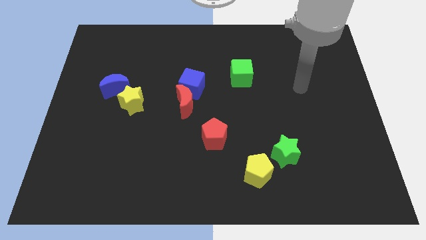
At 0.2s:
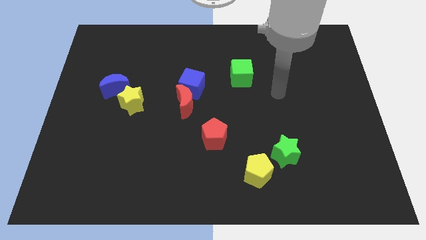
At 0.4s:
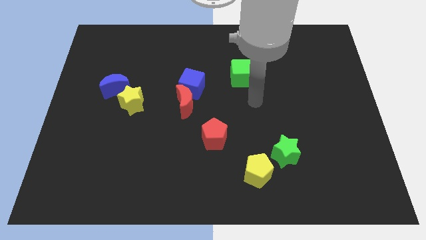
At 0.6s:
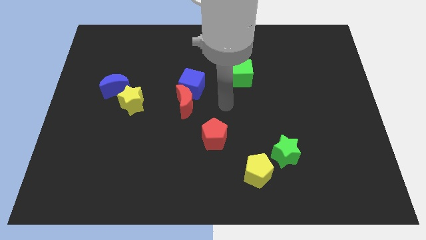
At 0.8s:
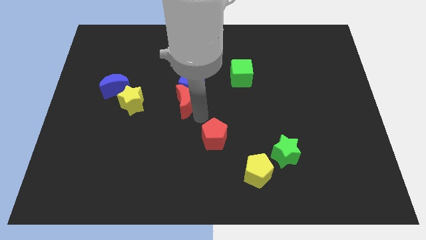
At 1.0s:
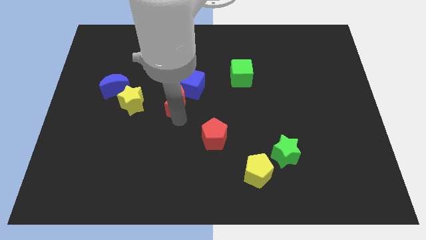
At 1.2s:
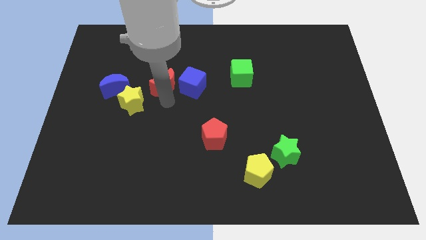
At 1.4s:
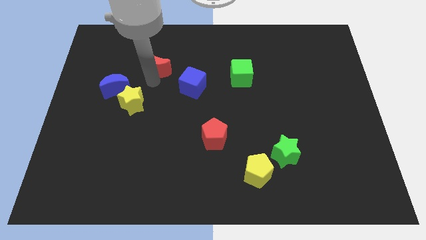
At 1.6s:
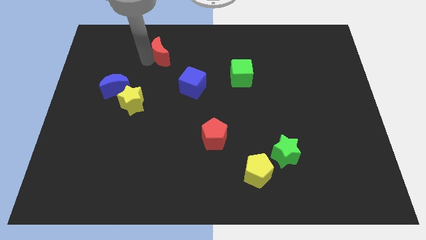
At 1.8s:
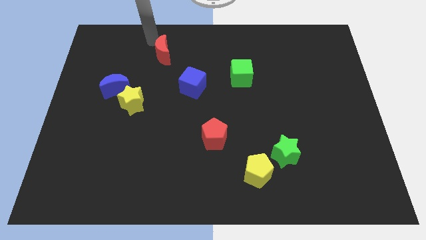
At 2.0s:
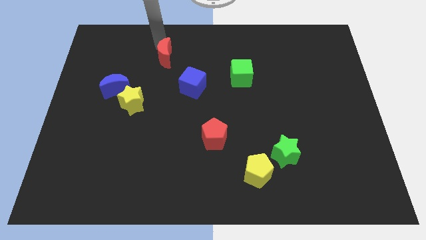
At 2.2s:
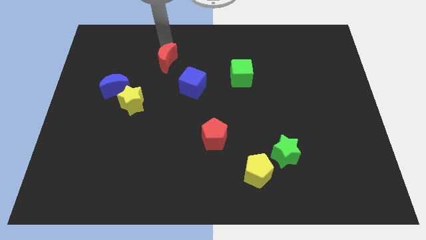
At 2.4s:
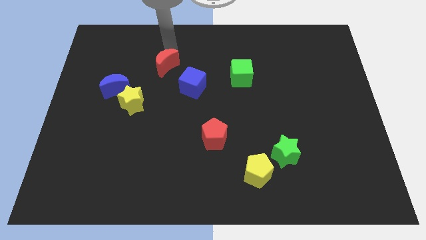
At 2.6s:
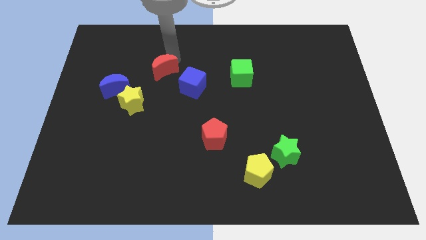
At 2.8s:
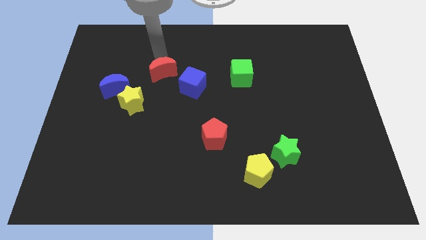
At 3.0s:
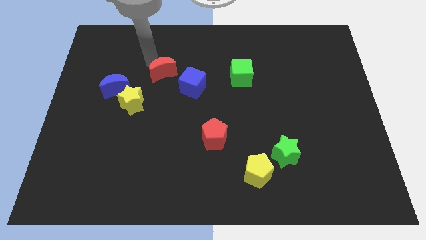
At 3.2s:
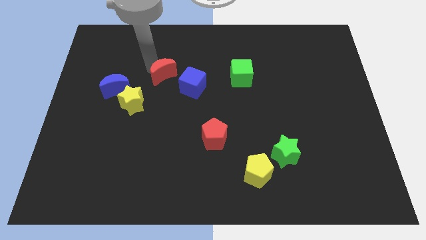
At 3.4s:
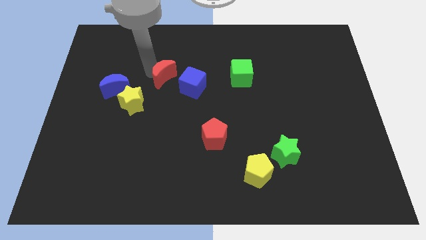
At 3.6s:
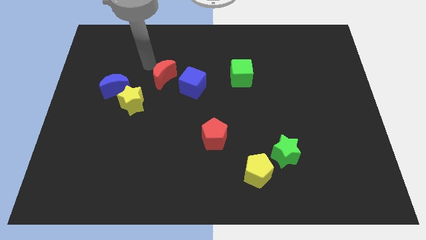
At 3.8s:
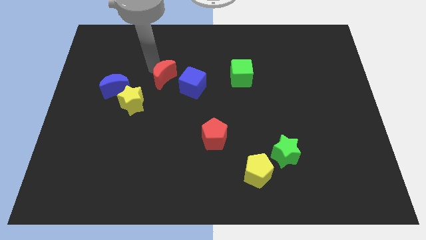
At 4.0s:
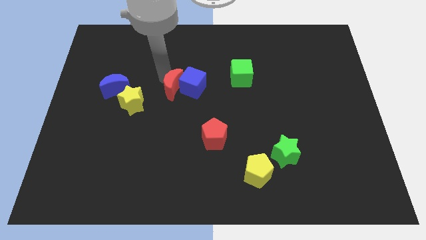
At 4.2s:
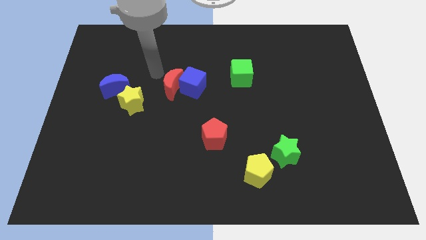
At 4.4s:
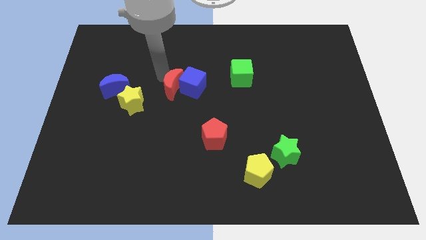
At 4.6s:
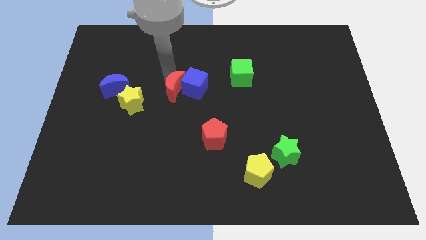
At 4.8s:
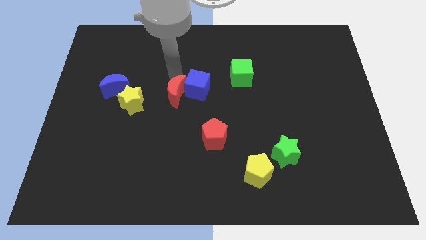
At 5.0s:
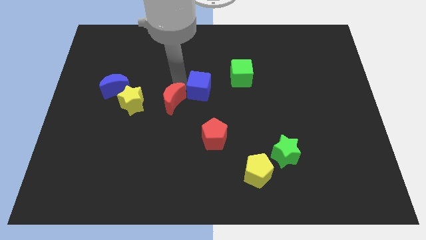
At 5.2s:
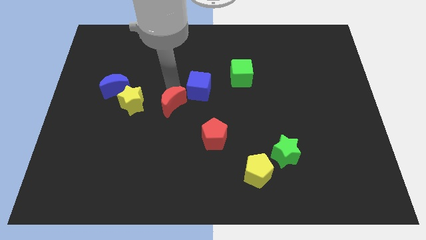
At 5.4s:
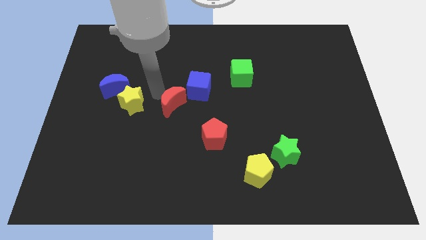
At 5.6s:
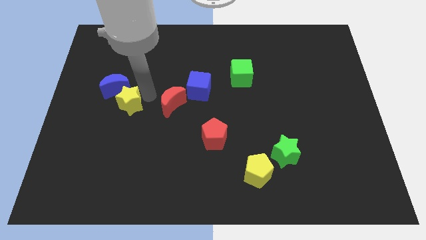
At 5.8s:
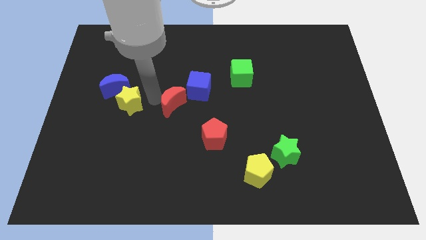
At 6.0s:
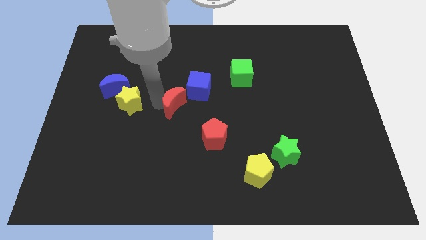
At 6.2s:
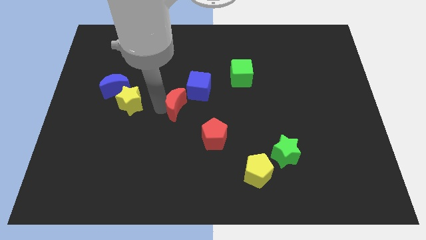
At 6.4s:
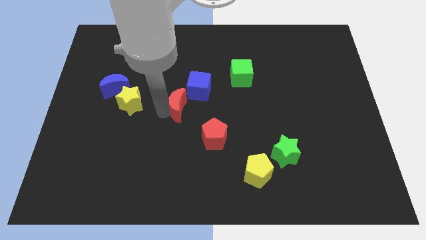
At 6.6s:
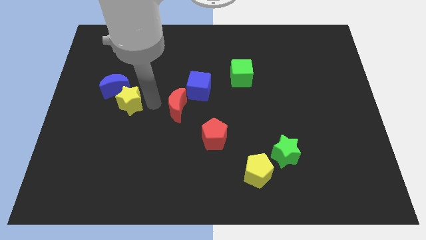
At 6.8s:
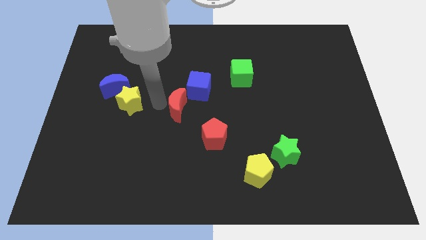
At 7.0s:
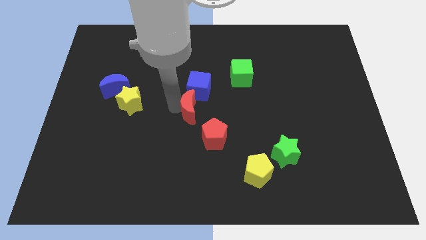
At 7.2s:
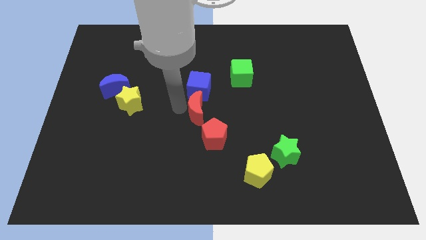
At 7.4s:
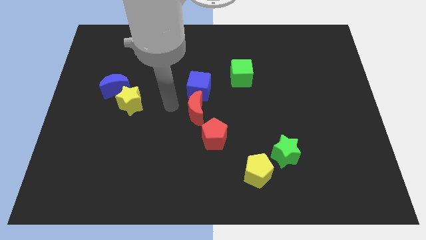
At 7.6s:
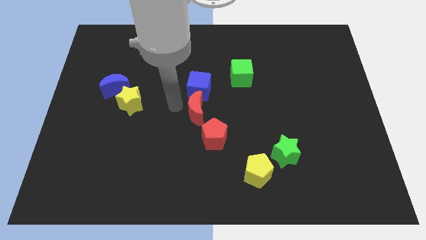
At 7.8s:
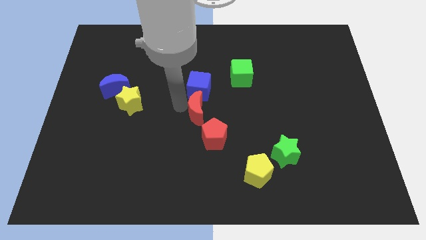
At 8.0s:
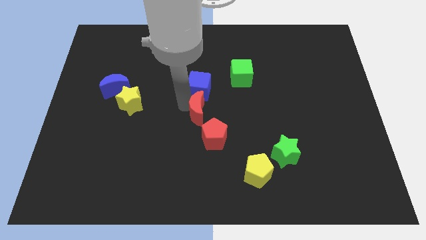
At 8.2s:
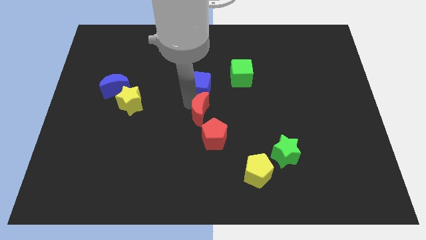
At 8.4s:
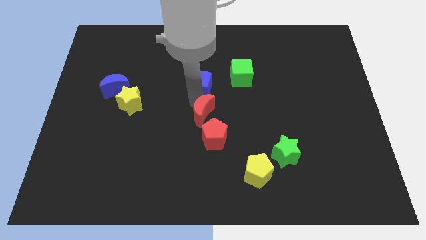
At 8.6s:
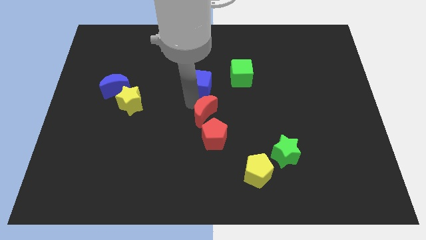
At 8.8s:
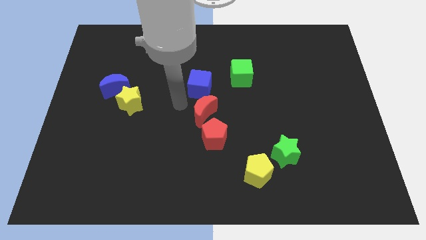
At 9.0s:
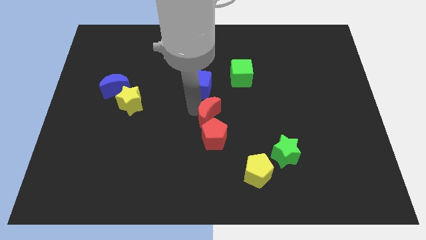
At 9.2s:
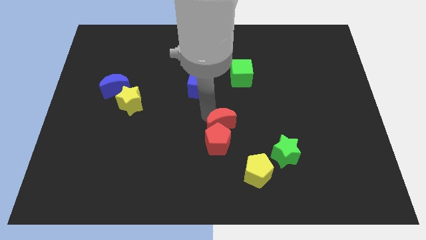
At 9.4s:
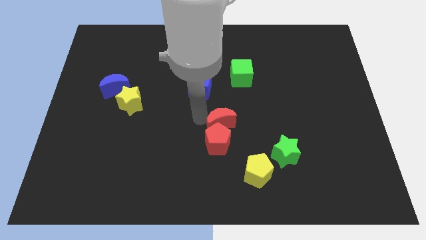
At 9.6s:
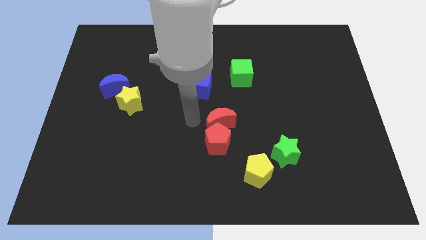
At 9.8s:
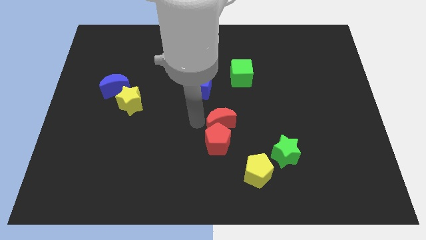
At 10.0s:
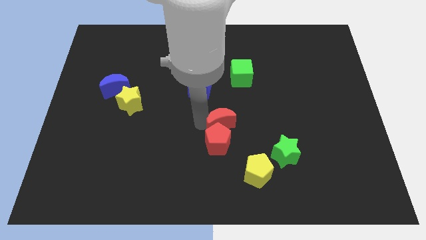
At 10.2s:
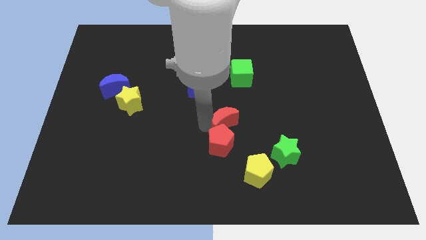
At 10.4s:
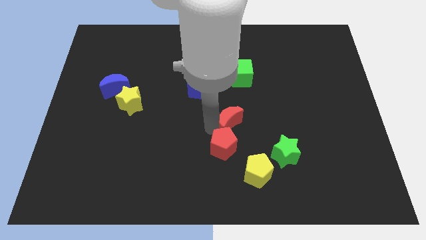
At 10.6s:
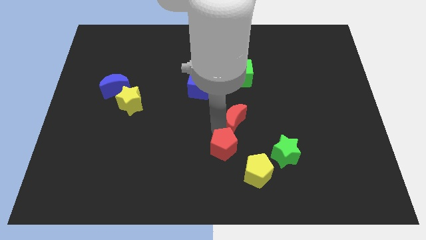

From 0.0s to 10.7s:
push the red moon to the top of the yellow pentagon

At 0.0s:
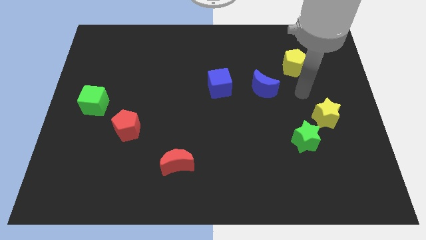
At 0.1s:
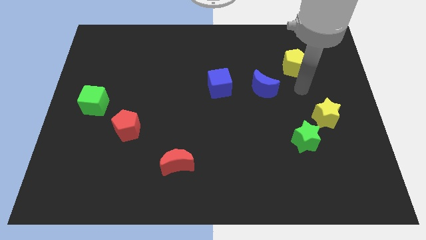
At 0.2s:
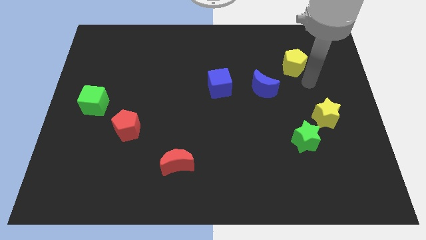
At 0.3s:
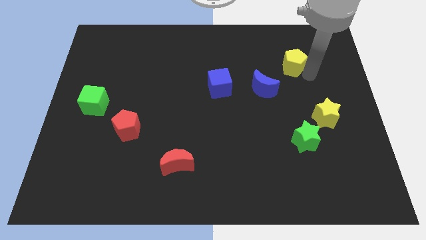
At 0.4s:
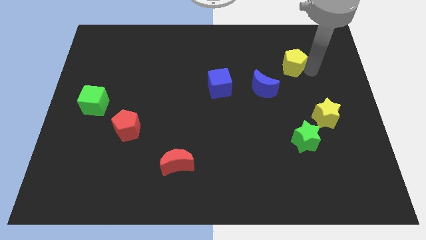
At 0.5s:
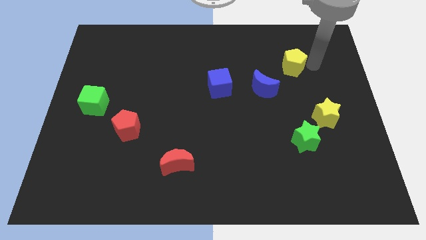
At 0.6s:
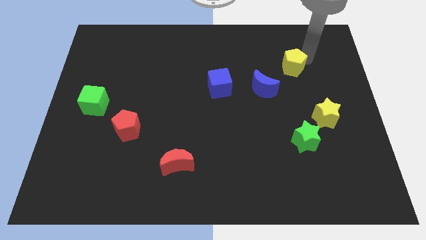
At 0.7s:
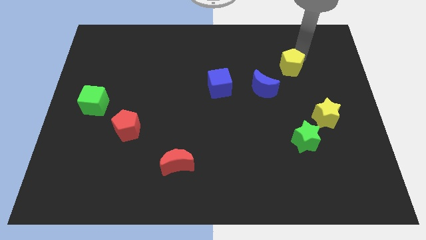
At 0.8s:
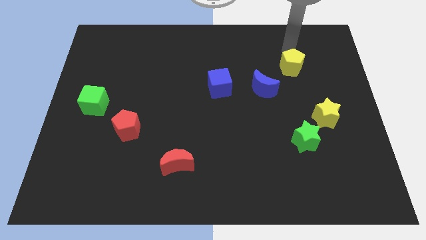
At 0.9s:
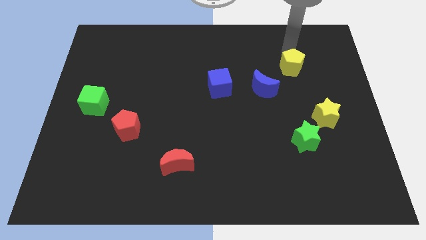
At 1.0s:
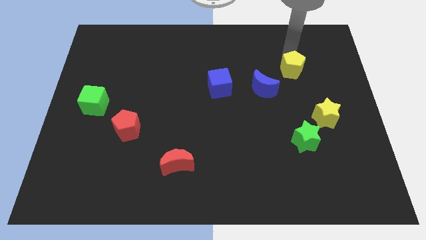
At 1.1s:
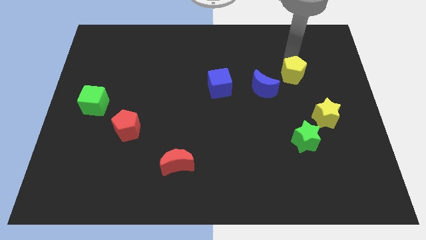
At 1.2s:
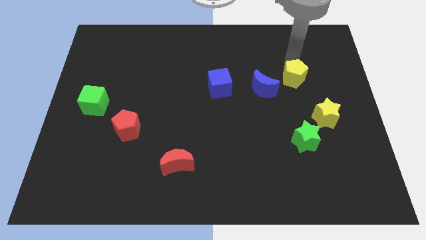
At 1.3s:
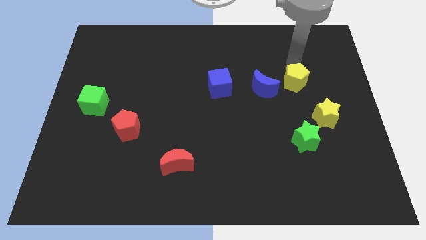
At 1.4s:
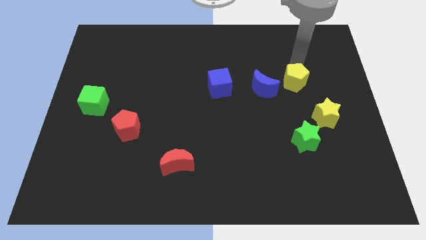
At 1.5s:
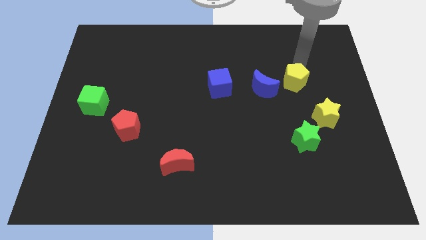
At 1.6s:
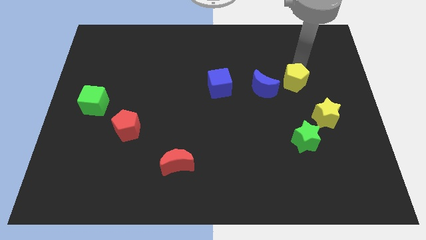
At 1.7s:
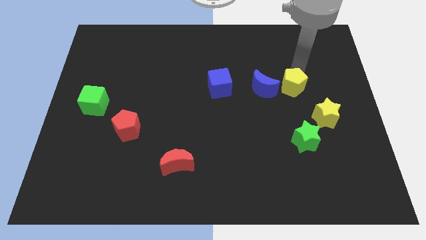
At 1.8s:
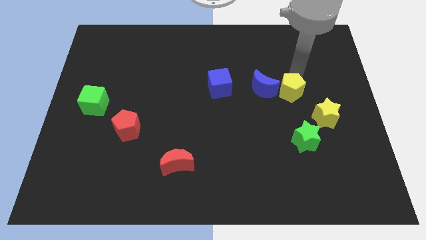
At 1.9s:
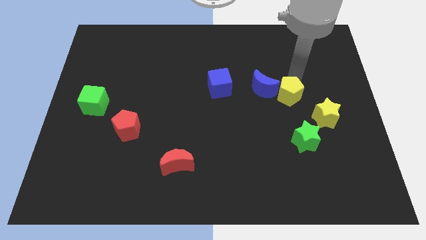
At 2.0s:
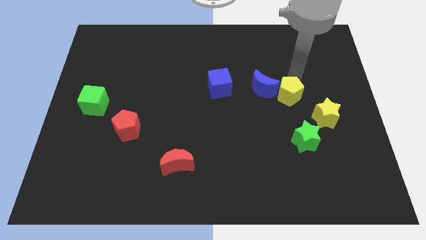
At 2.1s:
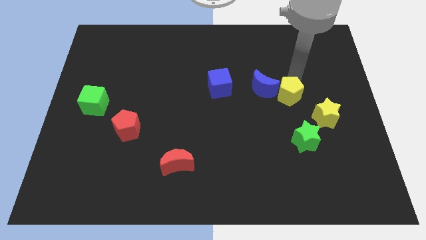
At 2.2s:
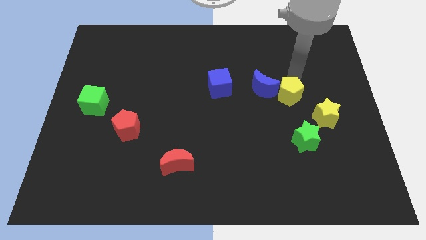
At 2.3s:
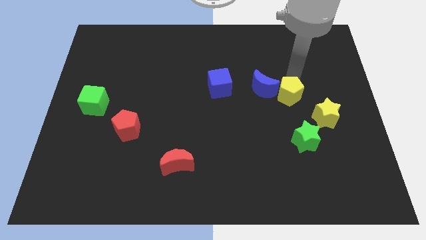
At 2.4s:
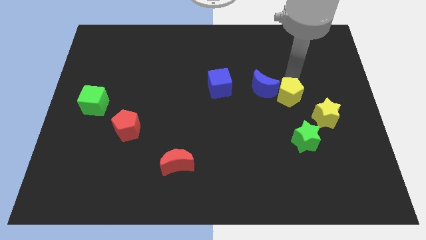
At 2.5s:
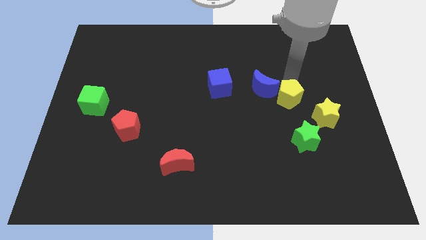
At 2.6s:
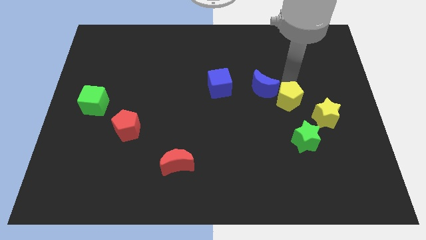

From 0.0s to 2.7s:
put the yellow pentagon just left of the yellow star
